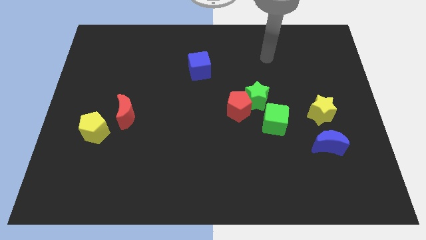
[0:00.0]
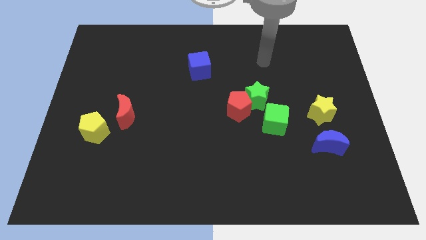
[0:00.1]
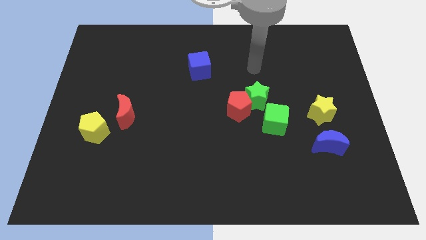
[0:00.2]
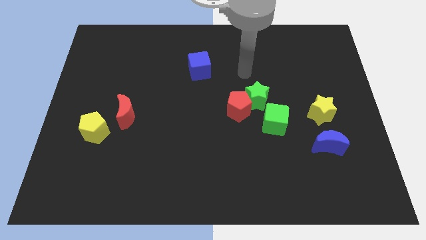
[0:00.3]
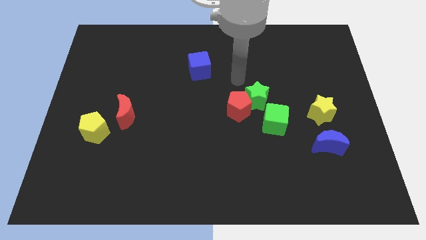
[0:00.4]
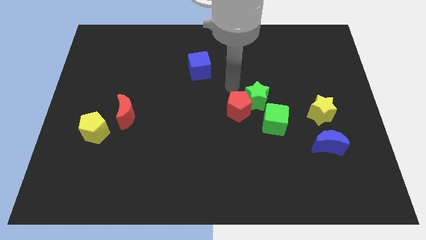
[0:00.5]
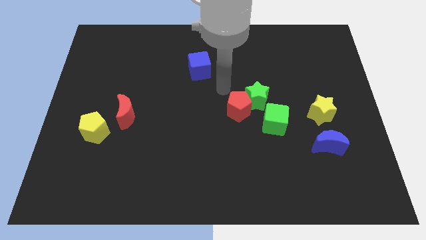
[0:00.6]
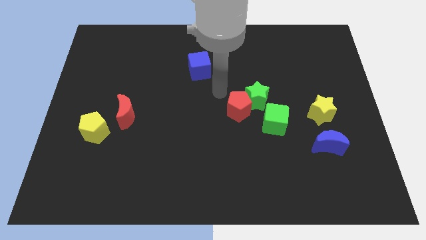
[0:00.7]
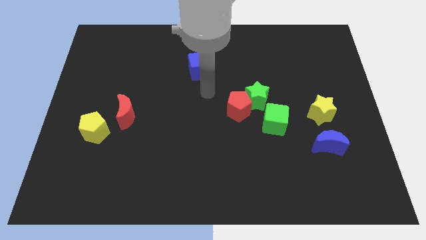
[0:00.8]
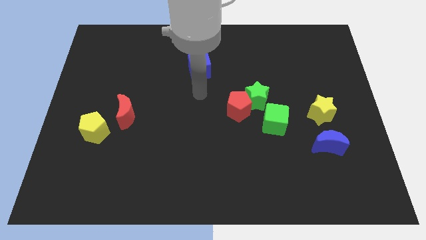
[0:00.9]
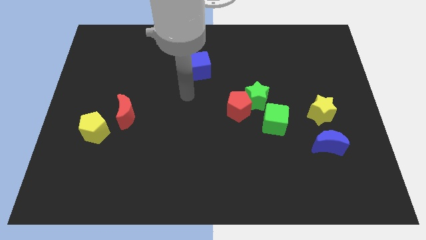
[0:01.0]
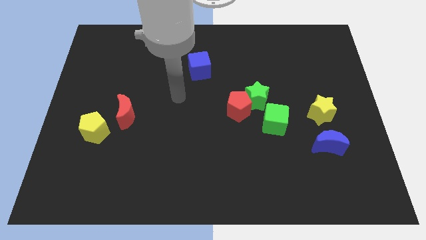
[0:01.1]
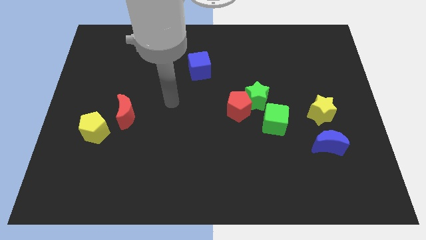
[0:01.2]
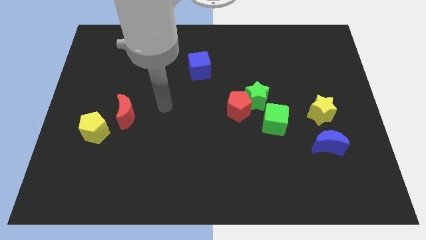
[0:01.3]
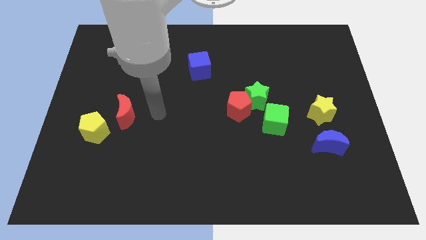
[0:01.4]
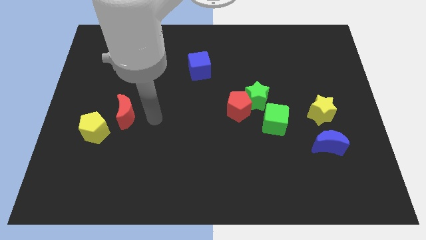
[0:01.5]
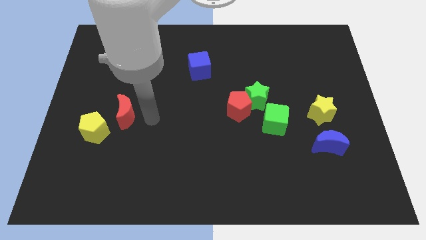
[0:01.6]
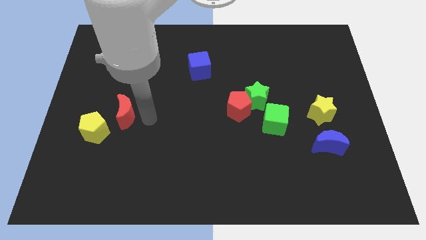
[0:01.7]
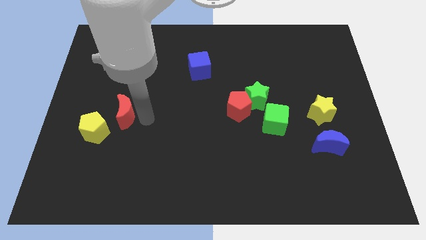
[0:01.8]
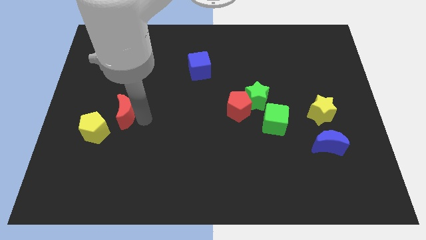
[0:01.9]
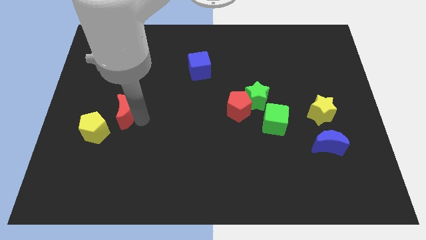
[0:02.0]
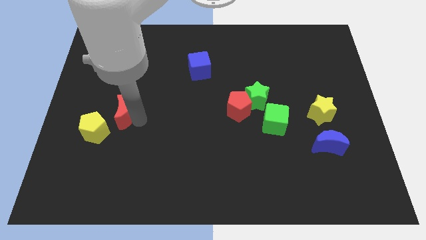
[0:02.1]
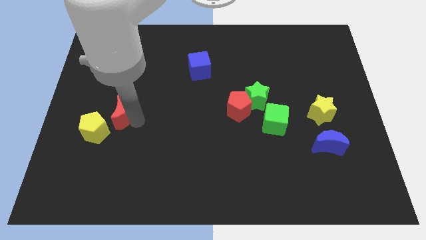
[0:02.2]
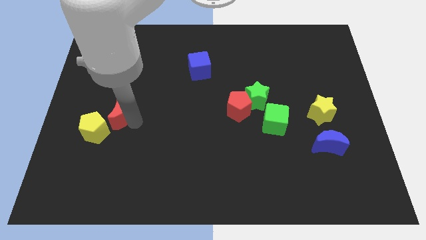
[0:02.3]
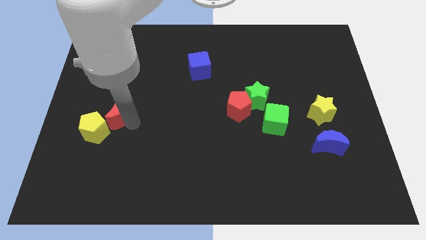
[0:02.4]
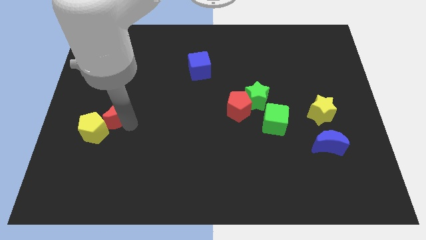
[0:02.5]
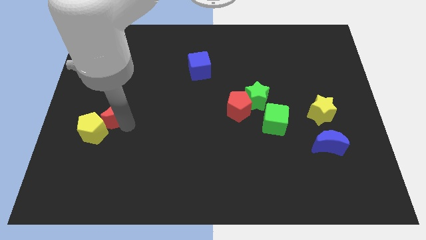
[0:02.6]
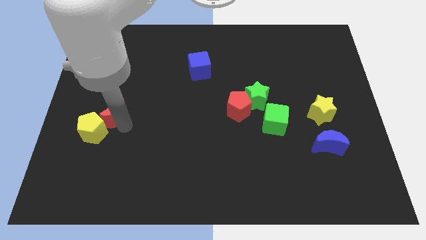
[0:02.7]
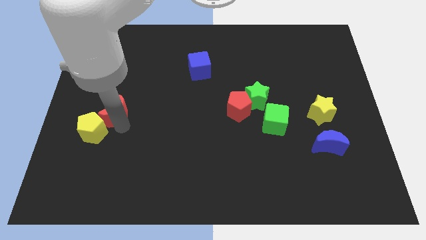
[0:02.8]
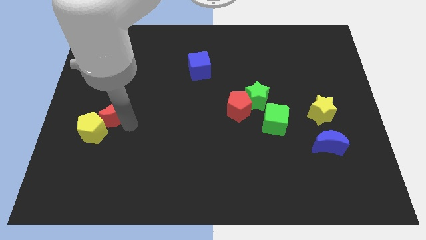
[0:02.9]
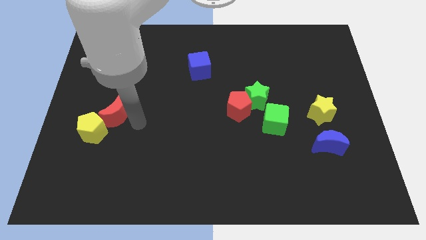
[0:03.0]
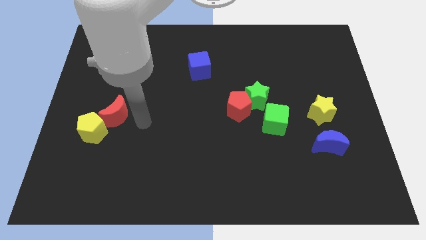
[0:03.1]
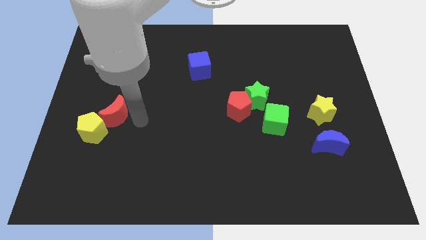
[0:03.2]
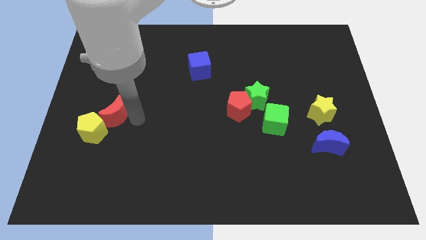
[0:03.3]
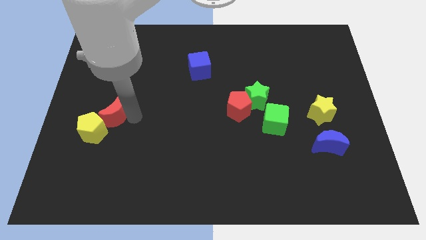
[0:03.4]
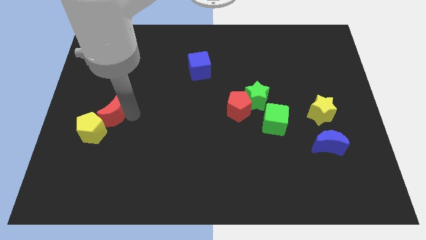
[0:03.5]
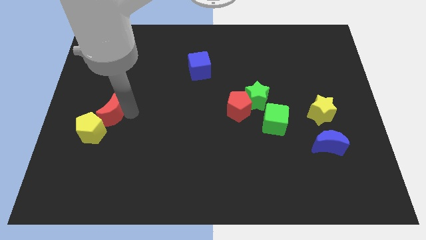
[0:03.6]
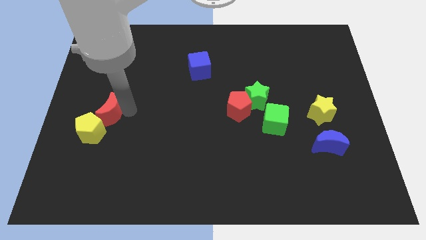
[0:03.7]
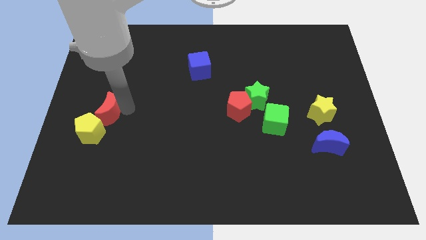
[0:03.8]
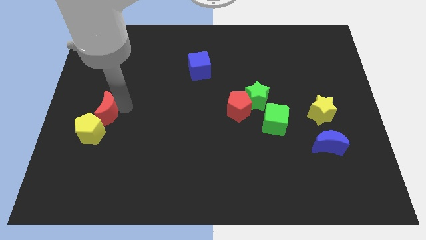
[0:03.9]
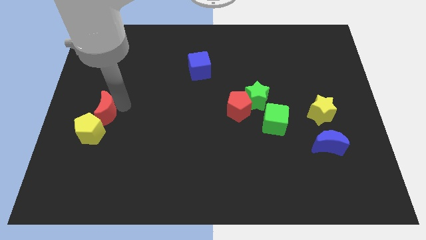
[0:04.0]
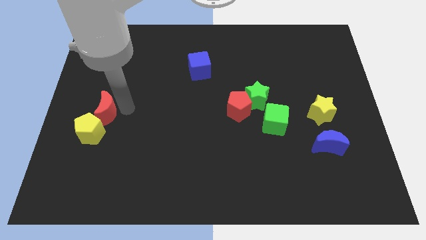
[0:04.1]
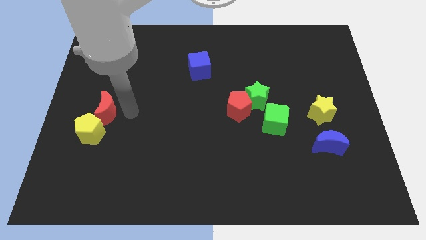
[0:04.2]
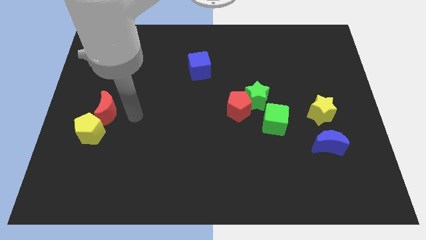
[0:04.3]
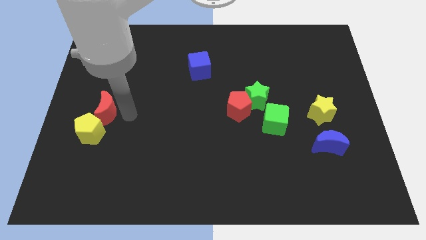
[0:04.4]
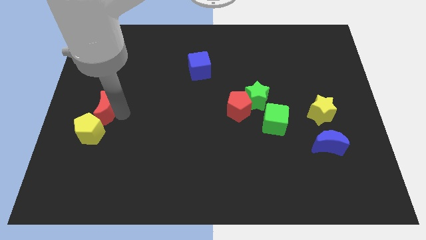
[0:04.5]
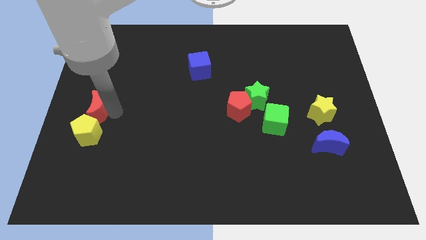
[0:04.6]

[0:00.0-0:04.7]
put the red moon to the center left

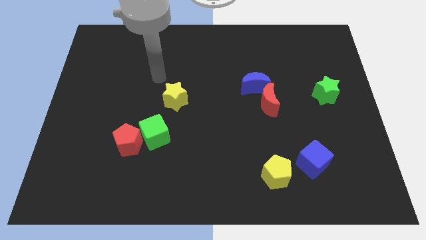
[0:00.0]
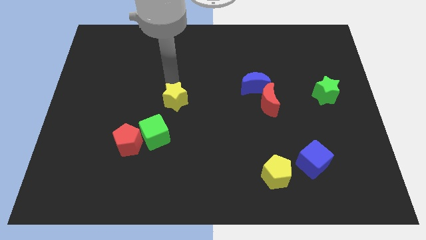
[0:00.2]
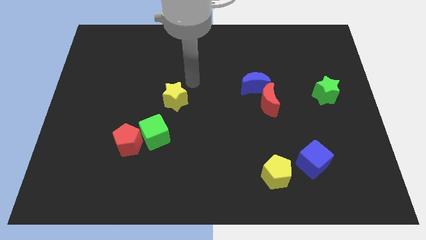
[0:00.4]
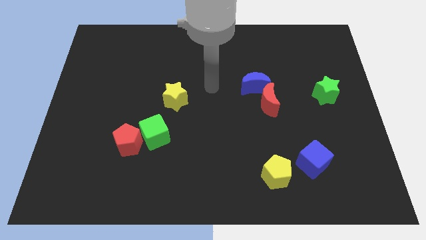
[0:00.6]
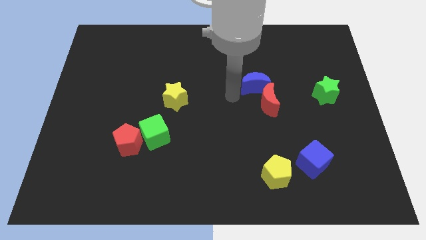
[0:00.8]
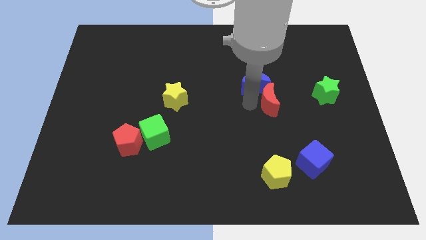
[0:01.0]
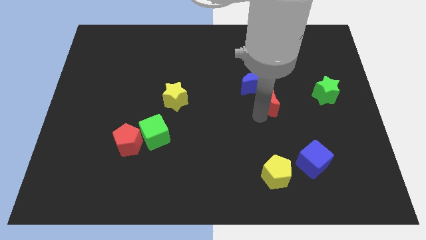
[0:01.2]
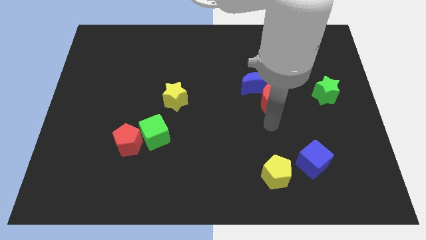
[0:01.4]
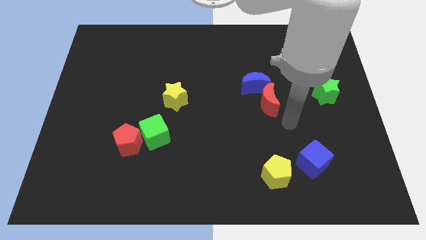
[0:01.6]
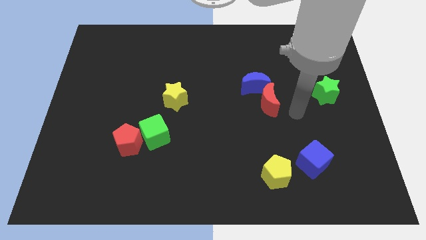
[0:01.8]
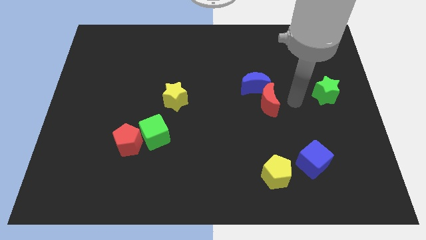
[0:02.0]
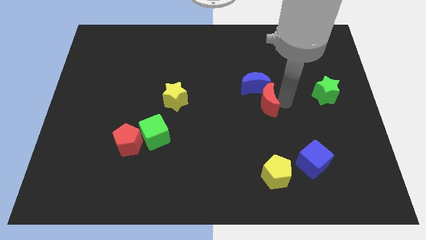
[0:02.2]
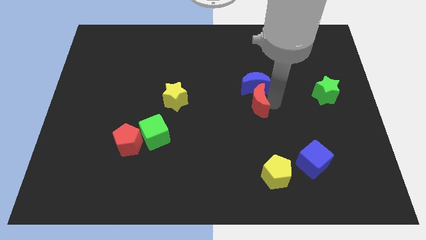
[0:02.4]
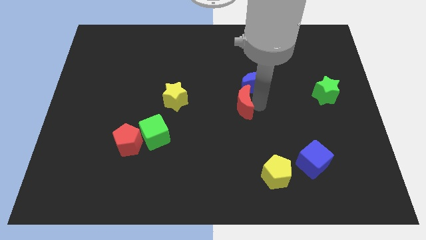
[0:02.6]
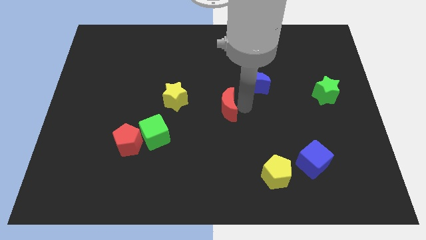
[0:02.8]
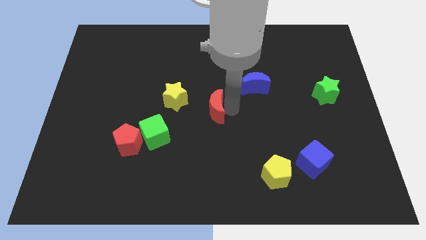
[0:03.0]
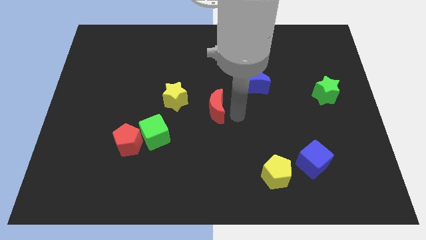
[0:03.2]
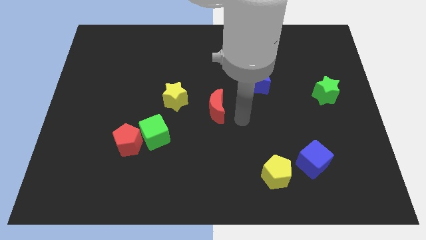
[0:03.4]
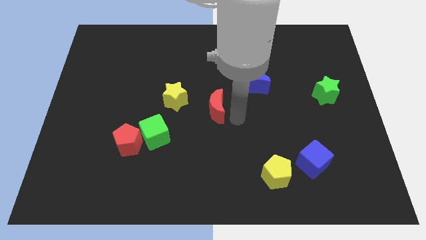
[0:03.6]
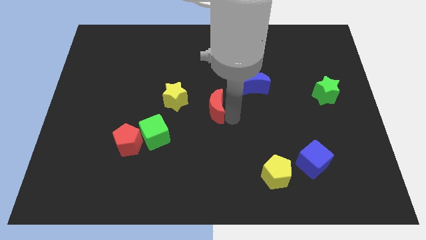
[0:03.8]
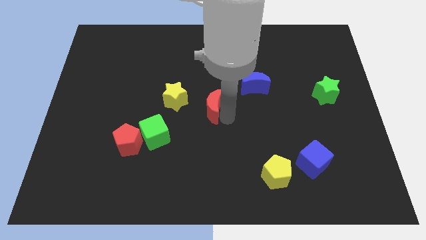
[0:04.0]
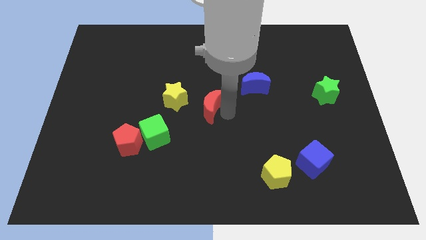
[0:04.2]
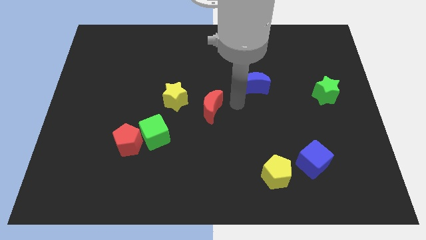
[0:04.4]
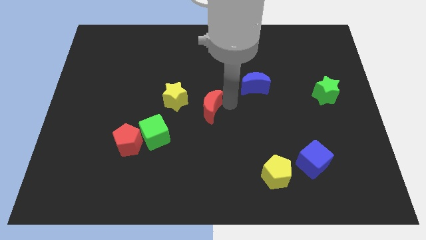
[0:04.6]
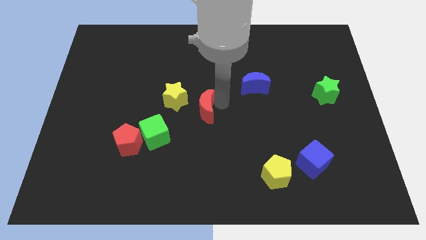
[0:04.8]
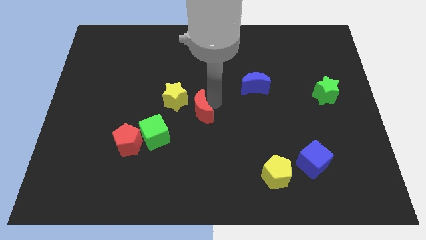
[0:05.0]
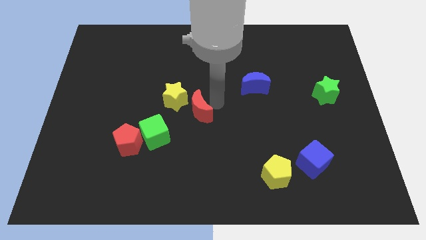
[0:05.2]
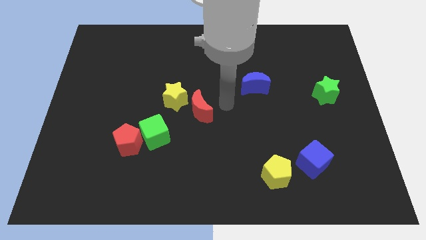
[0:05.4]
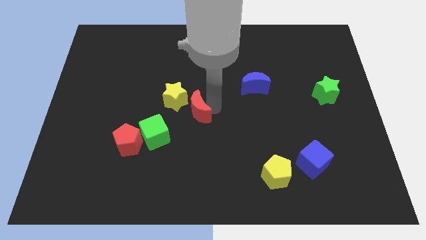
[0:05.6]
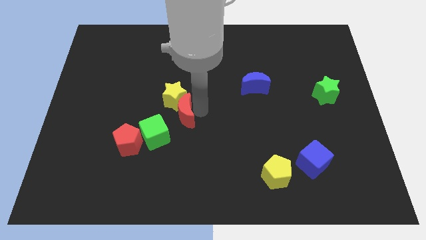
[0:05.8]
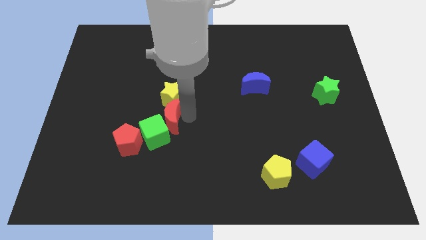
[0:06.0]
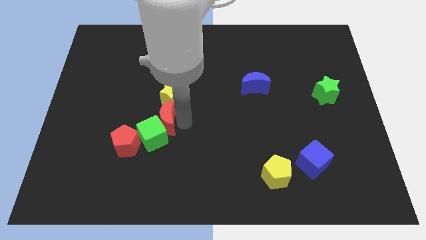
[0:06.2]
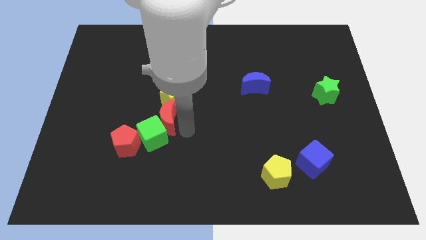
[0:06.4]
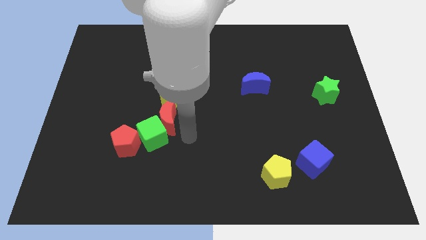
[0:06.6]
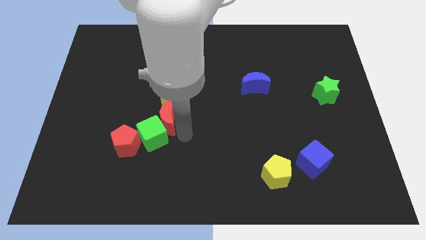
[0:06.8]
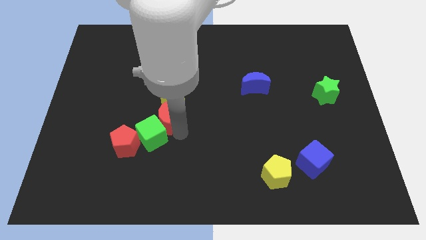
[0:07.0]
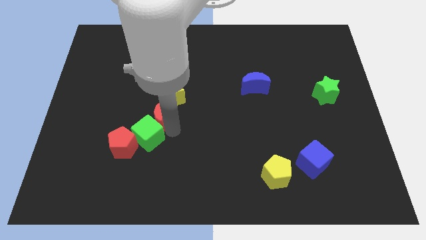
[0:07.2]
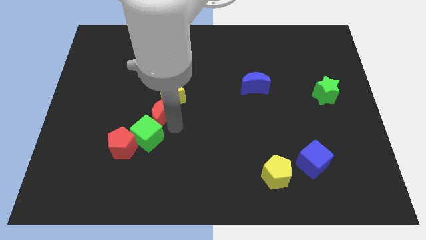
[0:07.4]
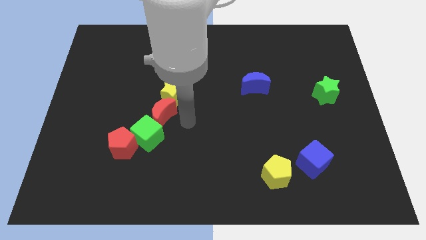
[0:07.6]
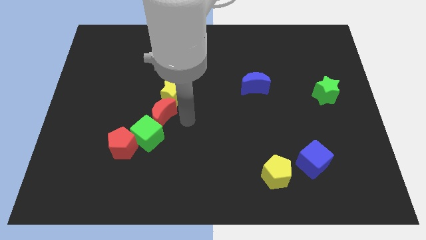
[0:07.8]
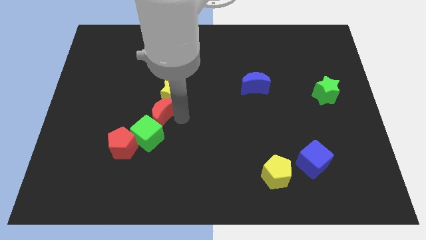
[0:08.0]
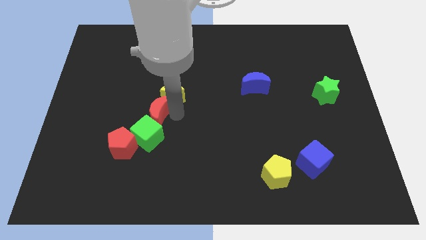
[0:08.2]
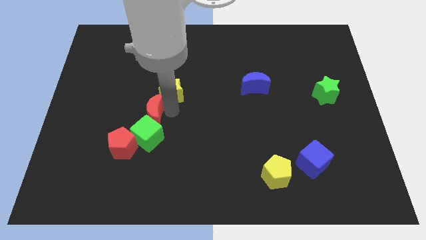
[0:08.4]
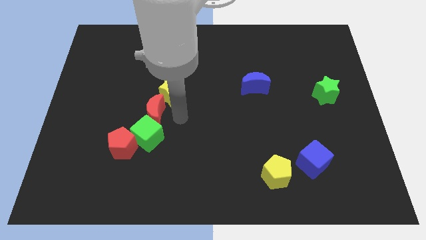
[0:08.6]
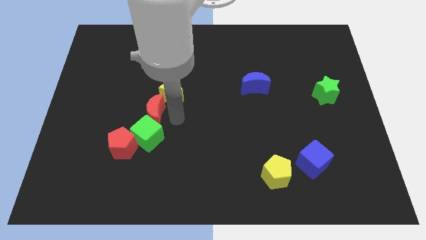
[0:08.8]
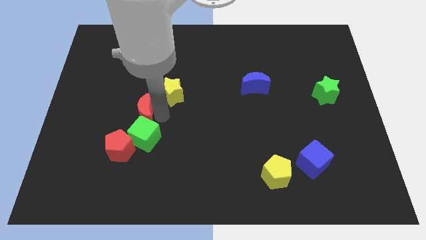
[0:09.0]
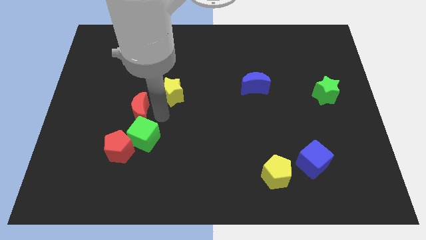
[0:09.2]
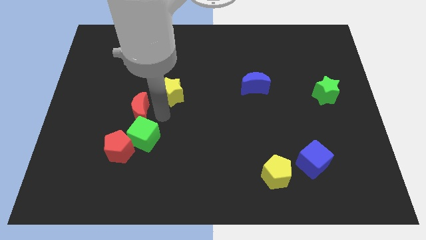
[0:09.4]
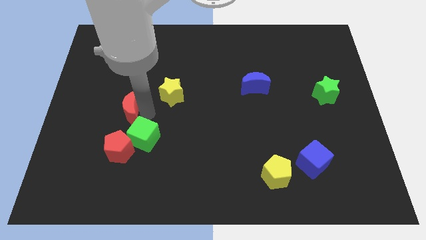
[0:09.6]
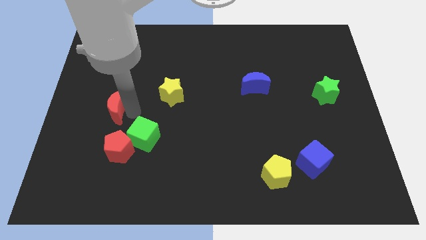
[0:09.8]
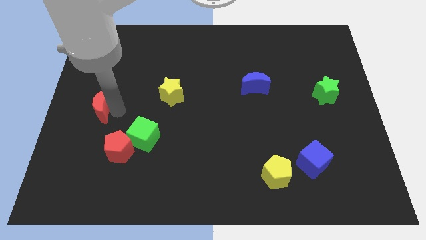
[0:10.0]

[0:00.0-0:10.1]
put the red moon to the left side
